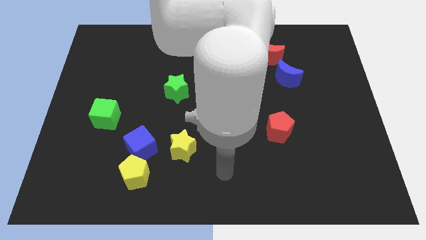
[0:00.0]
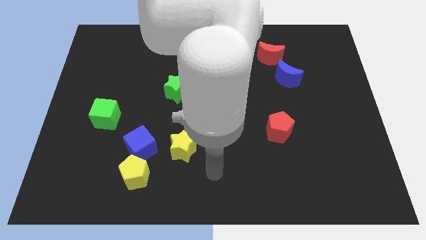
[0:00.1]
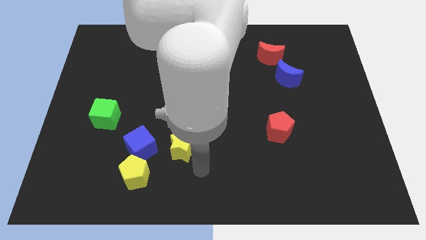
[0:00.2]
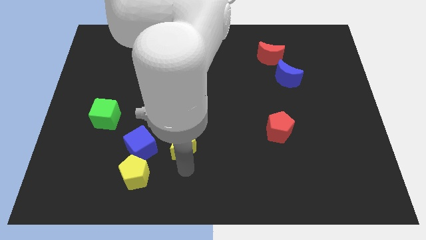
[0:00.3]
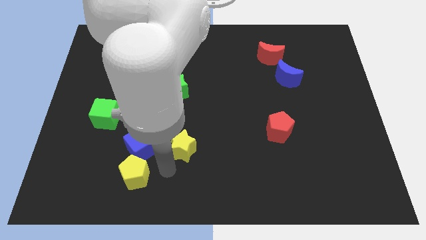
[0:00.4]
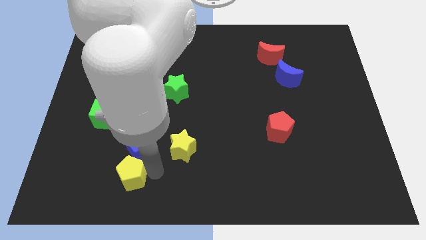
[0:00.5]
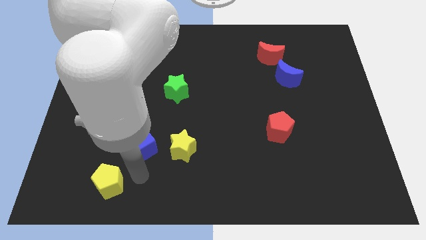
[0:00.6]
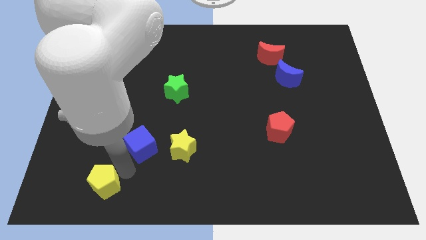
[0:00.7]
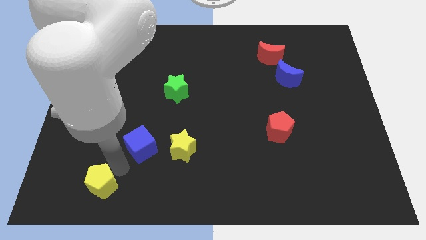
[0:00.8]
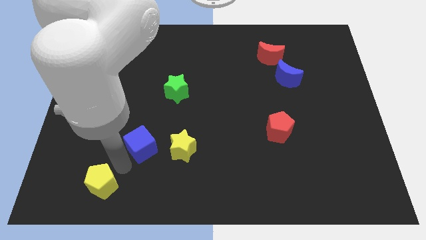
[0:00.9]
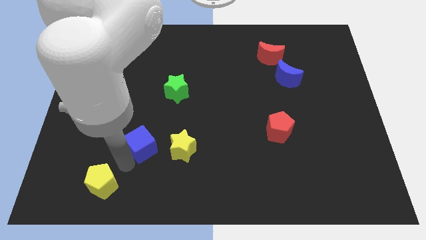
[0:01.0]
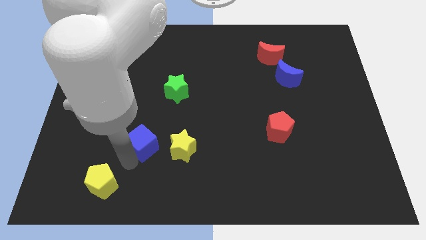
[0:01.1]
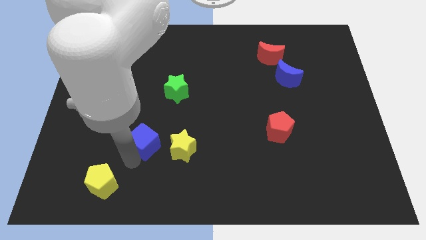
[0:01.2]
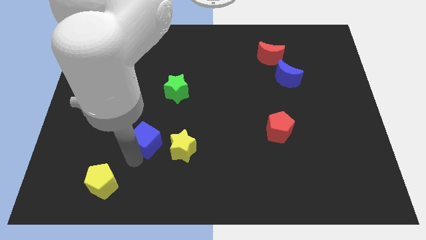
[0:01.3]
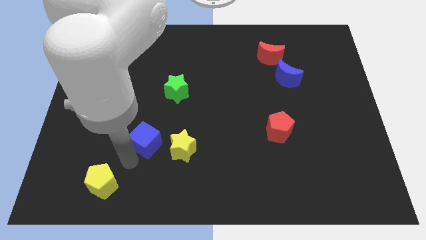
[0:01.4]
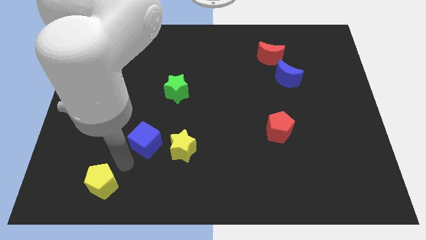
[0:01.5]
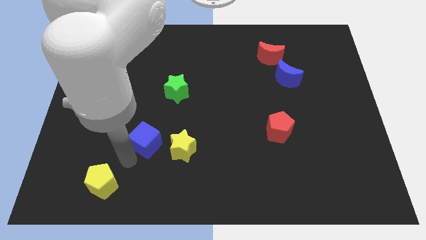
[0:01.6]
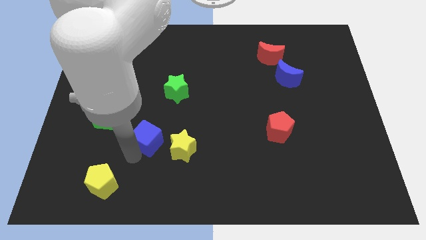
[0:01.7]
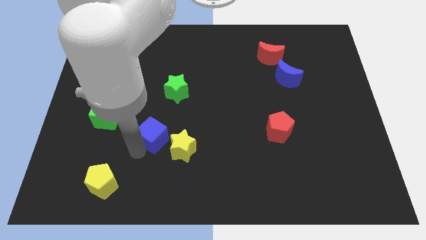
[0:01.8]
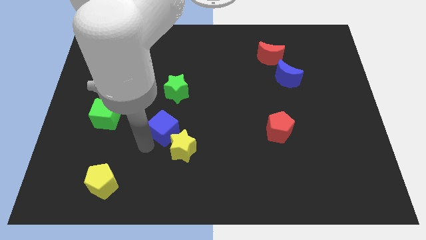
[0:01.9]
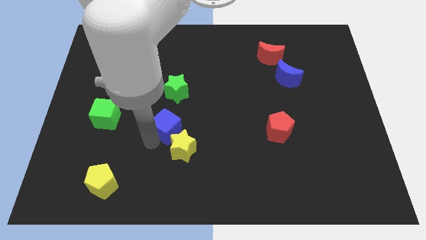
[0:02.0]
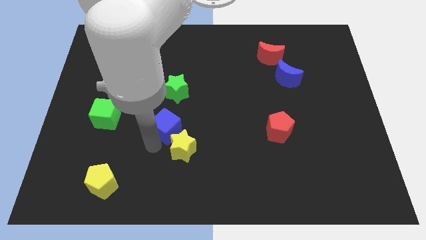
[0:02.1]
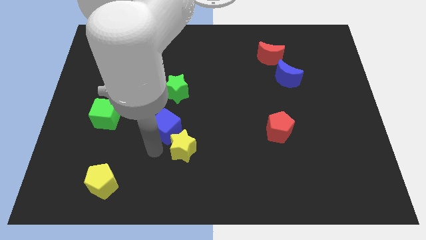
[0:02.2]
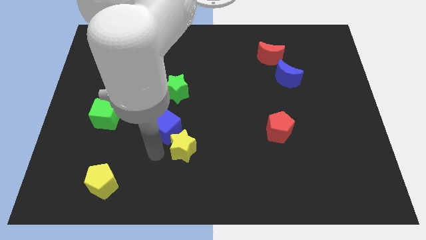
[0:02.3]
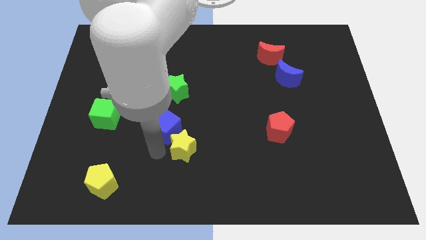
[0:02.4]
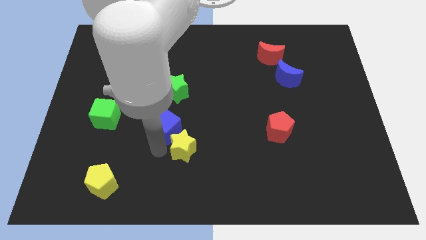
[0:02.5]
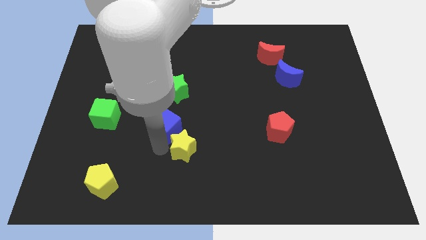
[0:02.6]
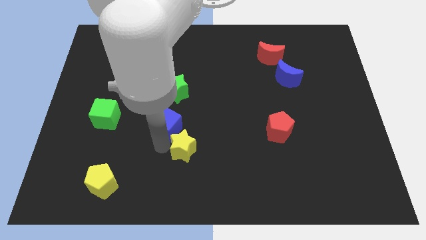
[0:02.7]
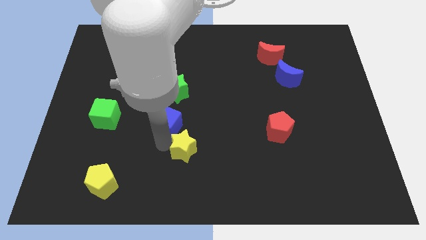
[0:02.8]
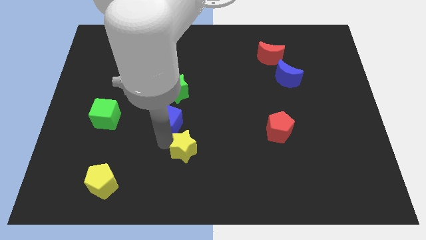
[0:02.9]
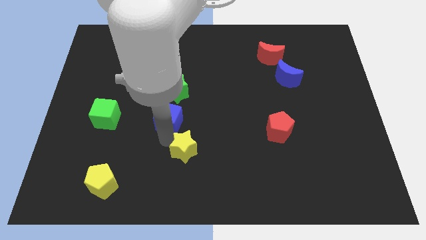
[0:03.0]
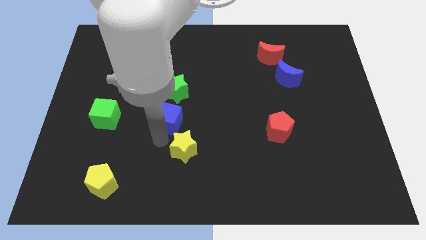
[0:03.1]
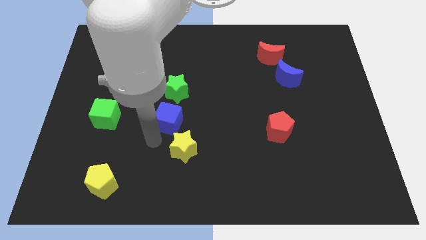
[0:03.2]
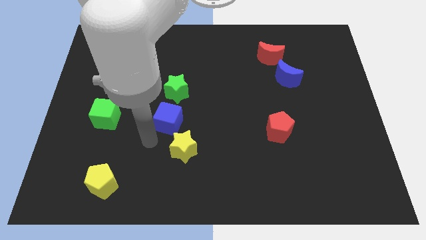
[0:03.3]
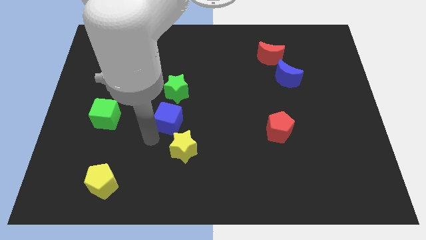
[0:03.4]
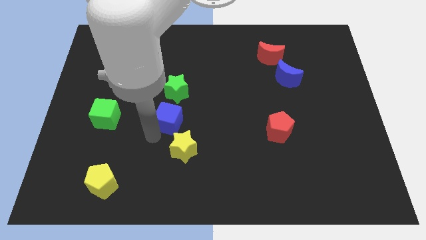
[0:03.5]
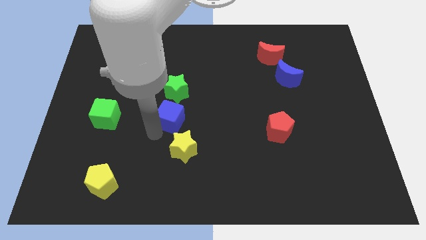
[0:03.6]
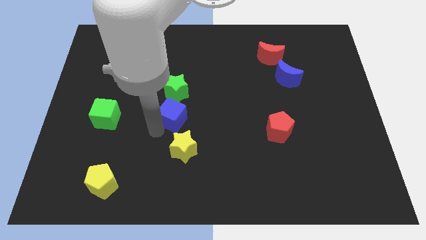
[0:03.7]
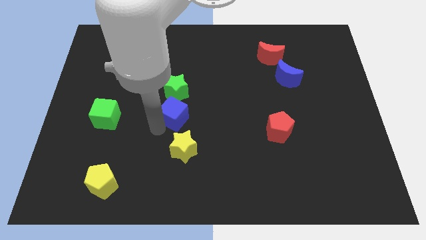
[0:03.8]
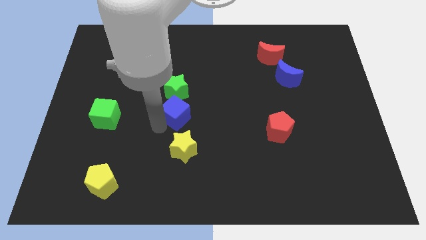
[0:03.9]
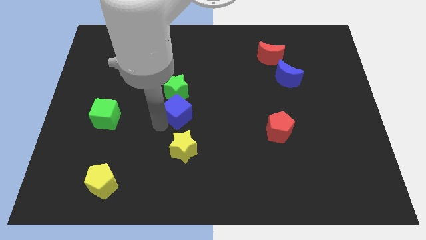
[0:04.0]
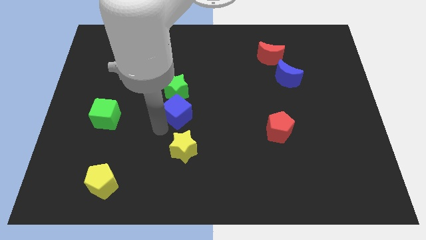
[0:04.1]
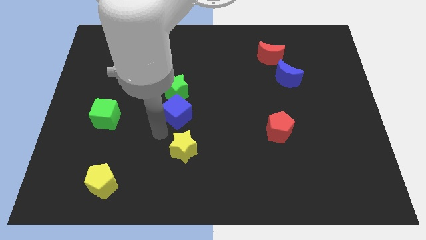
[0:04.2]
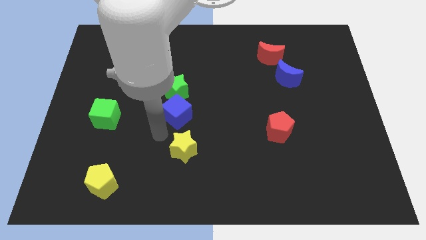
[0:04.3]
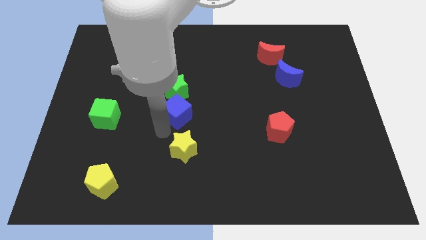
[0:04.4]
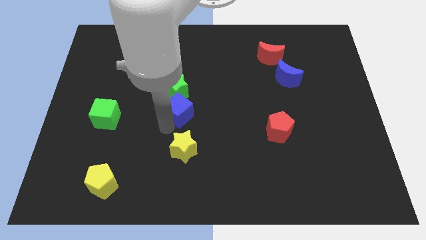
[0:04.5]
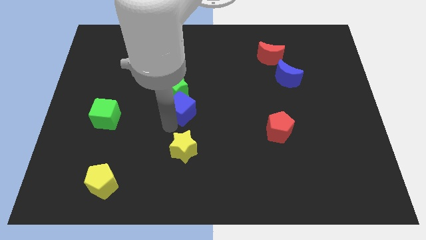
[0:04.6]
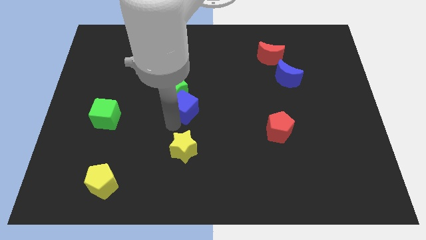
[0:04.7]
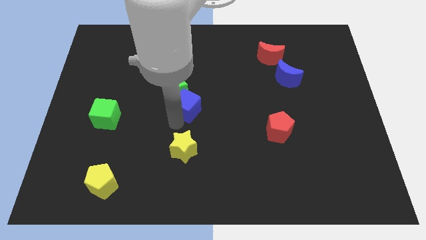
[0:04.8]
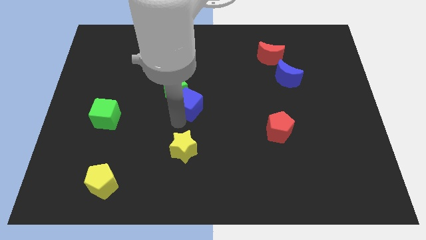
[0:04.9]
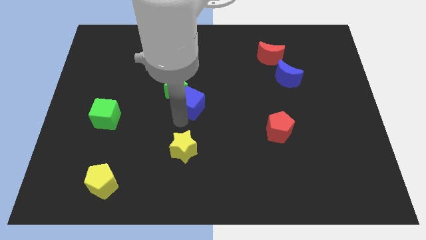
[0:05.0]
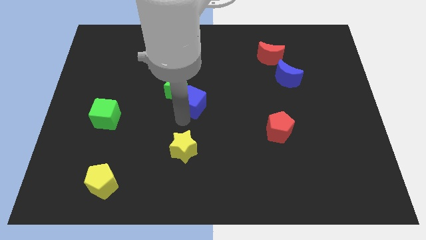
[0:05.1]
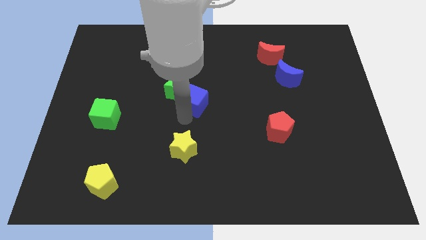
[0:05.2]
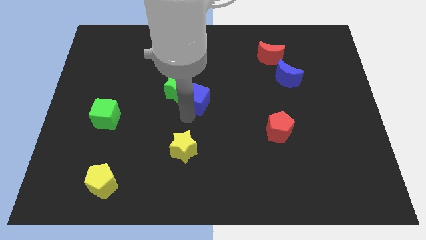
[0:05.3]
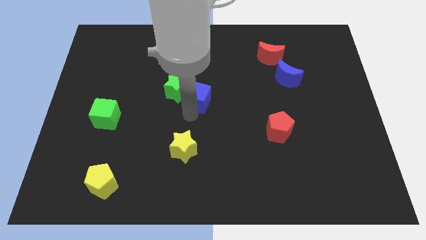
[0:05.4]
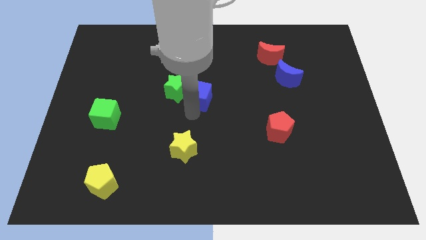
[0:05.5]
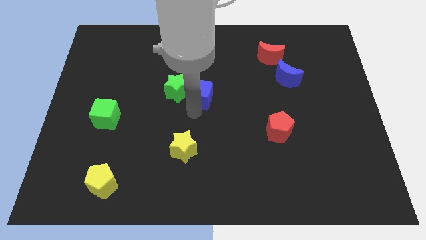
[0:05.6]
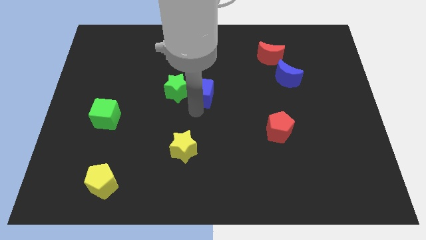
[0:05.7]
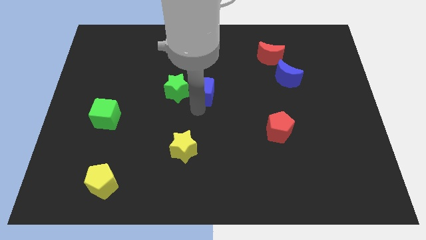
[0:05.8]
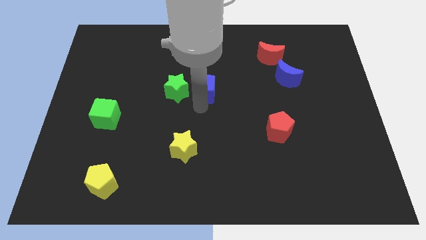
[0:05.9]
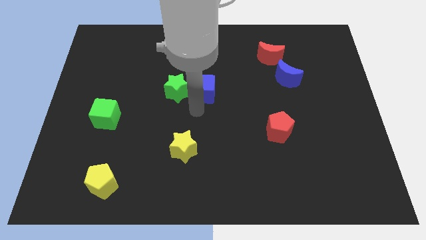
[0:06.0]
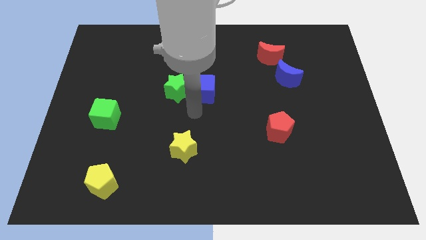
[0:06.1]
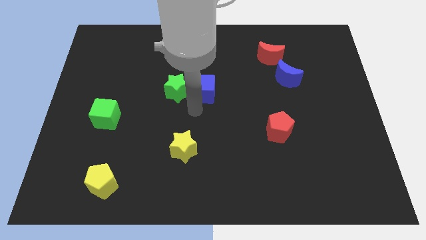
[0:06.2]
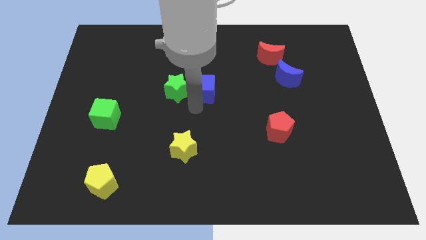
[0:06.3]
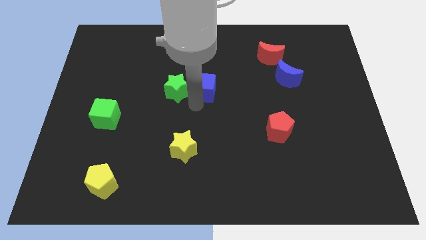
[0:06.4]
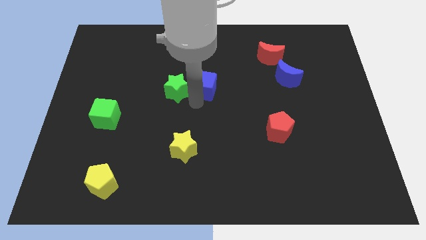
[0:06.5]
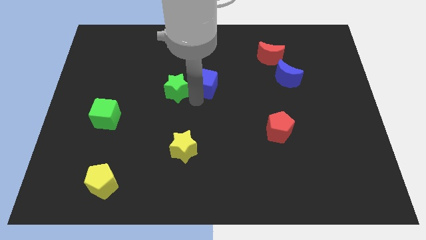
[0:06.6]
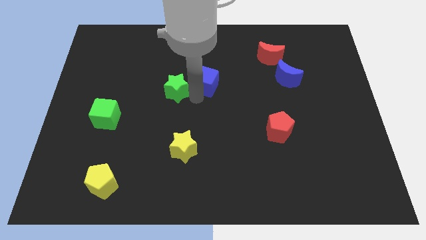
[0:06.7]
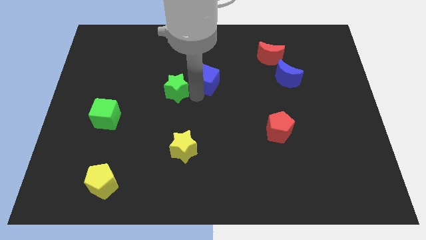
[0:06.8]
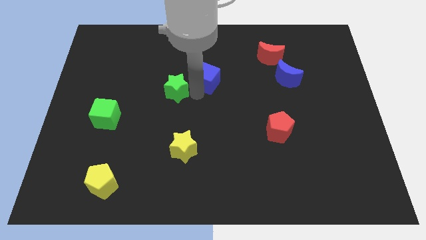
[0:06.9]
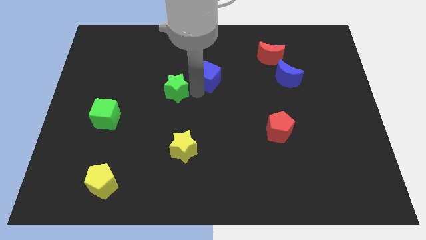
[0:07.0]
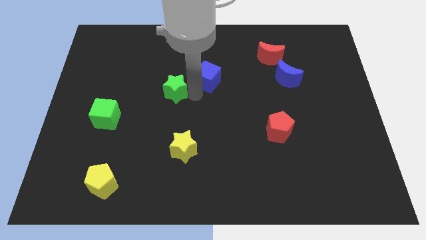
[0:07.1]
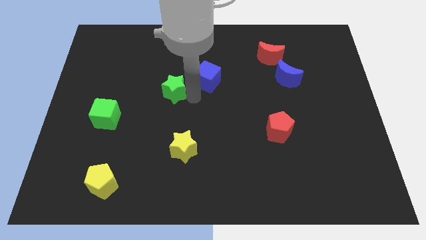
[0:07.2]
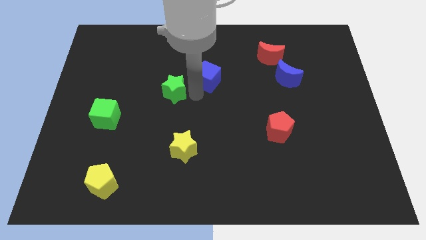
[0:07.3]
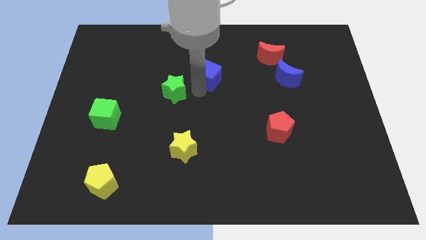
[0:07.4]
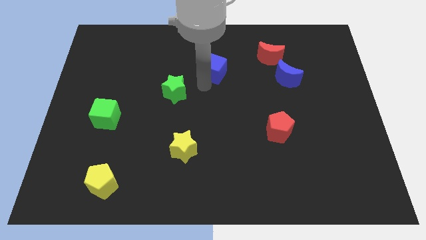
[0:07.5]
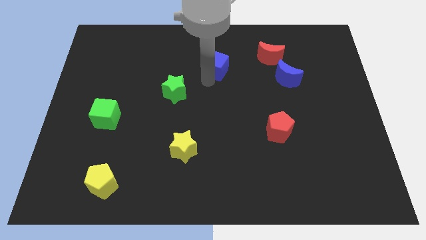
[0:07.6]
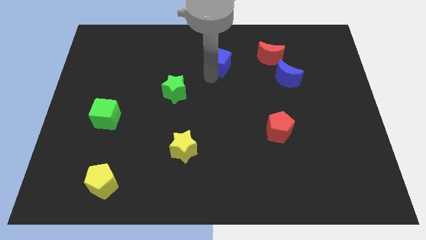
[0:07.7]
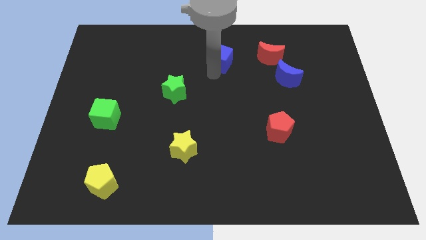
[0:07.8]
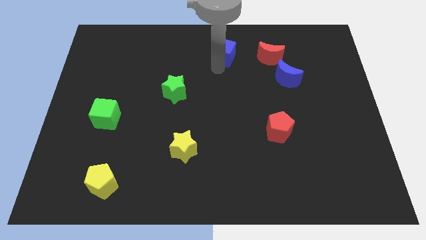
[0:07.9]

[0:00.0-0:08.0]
move the blue cube to the towards your base
